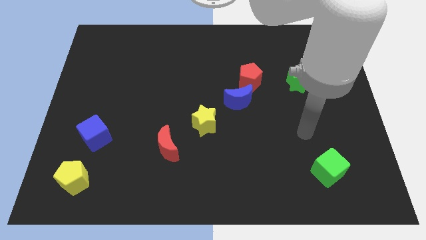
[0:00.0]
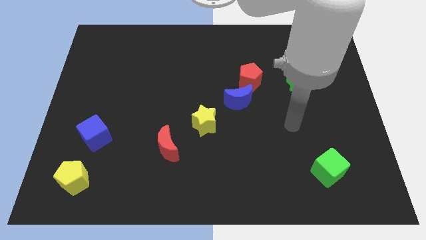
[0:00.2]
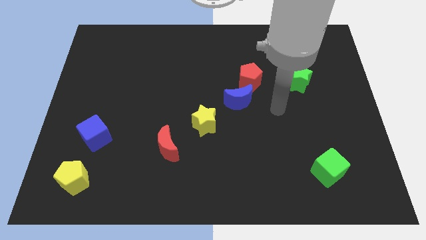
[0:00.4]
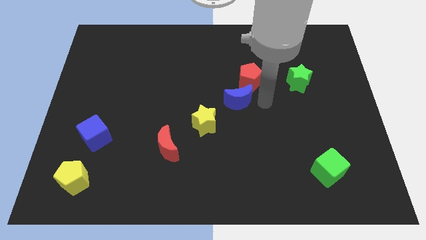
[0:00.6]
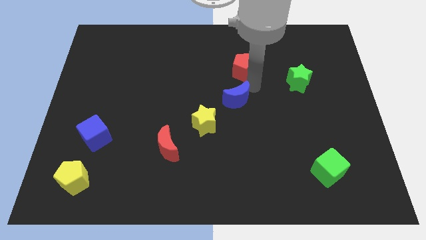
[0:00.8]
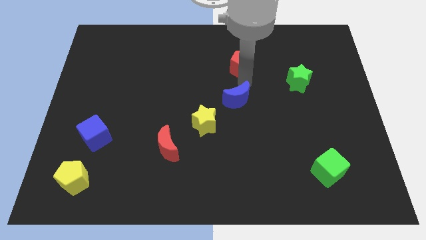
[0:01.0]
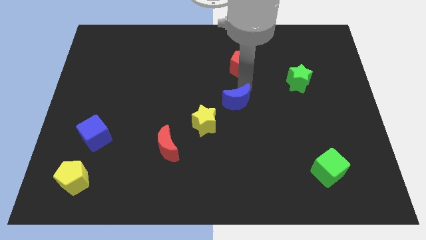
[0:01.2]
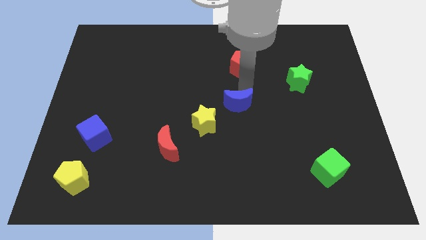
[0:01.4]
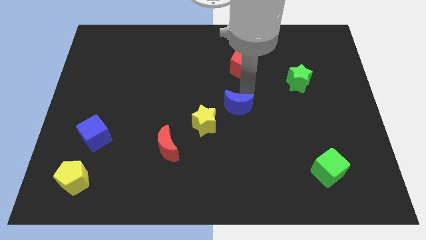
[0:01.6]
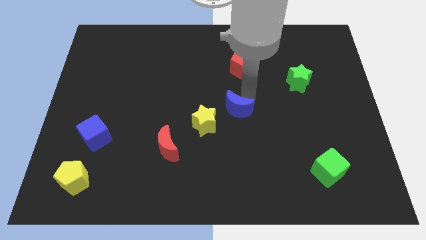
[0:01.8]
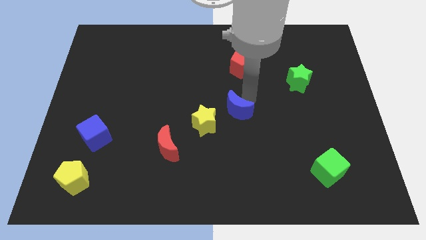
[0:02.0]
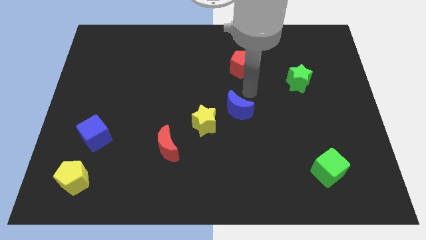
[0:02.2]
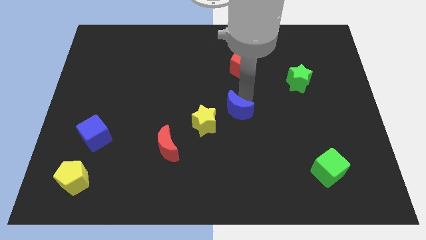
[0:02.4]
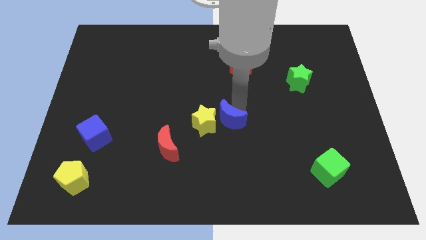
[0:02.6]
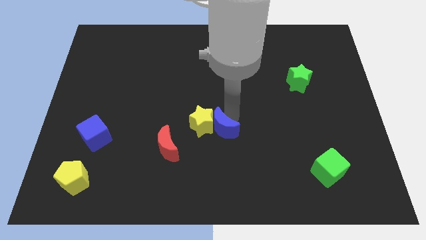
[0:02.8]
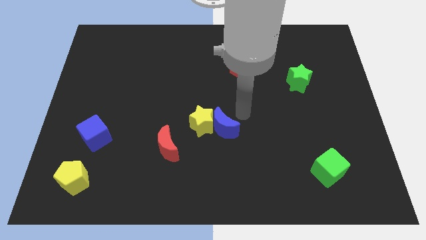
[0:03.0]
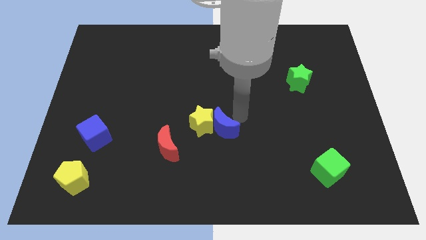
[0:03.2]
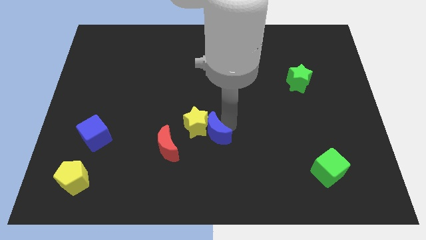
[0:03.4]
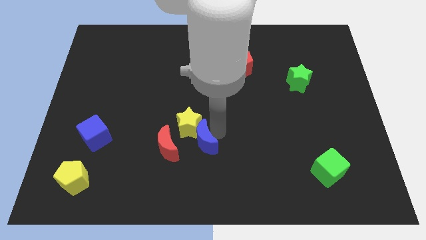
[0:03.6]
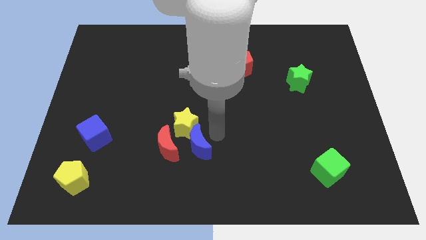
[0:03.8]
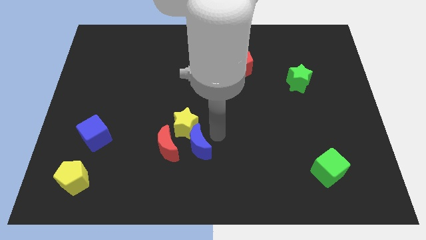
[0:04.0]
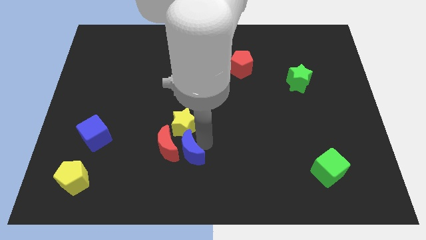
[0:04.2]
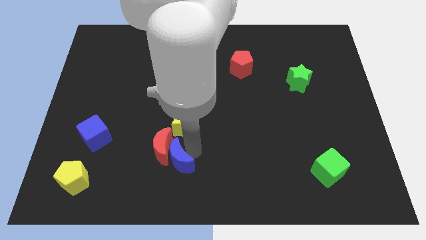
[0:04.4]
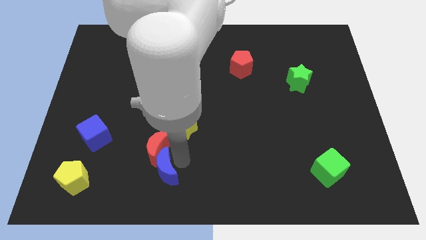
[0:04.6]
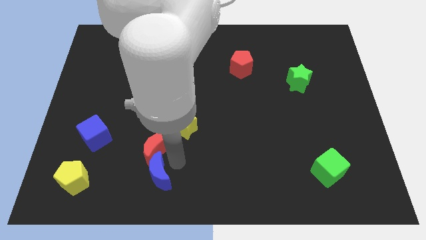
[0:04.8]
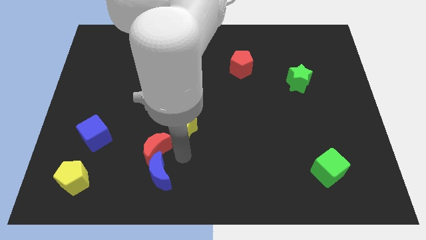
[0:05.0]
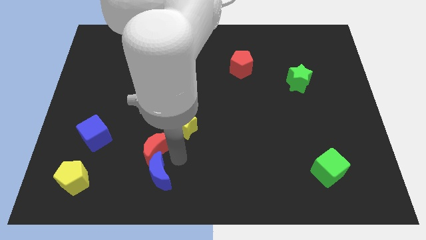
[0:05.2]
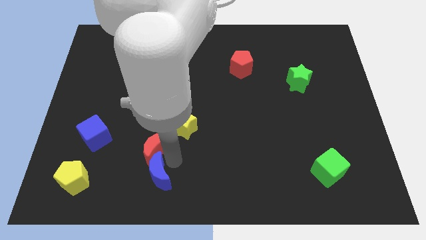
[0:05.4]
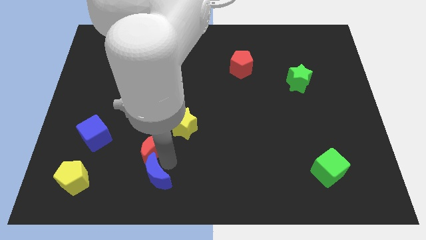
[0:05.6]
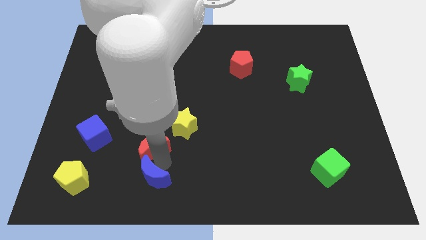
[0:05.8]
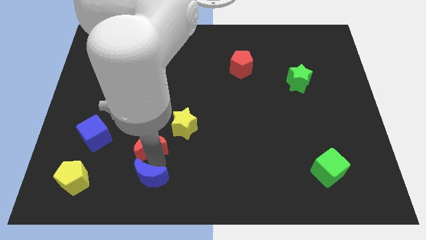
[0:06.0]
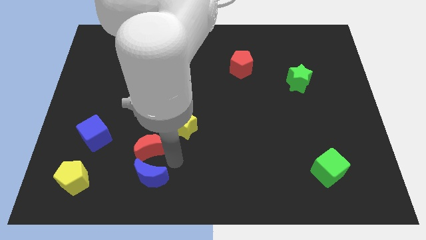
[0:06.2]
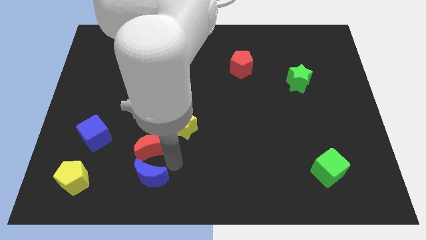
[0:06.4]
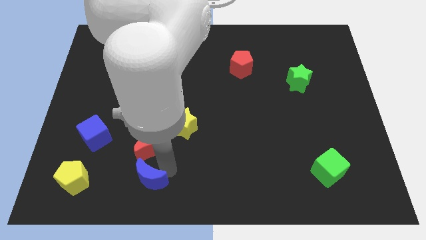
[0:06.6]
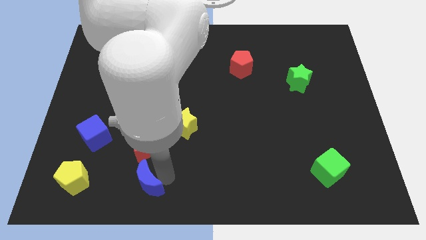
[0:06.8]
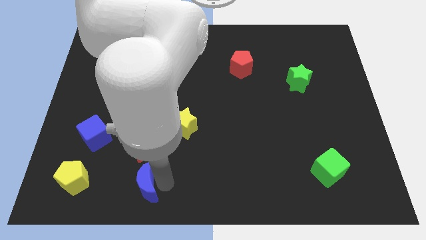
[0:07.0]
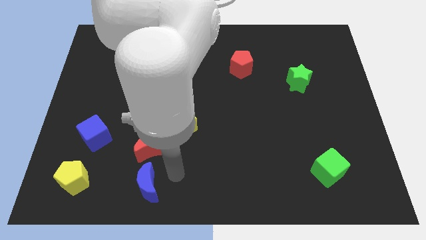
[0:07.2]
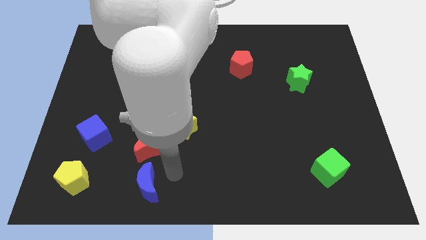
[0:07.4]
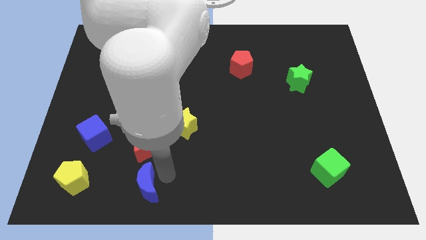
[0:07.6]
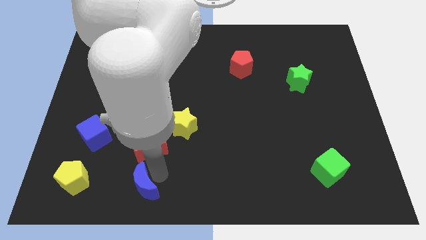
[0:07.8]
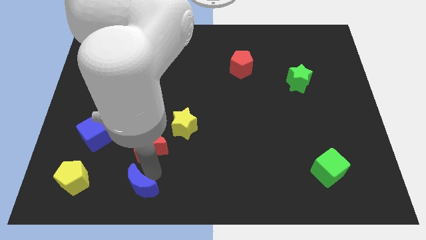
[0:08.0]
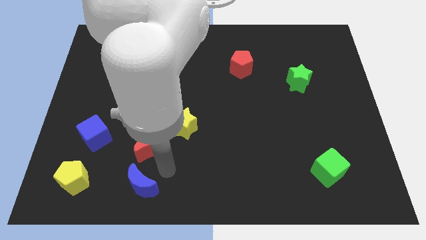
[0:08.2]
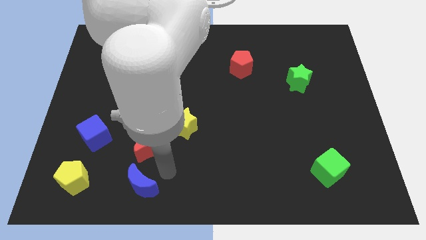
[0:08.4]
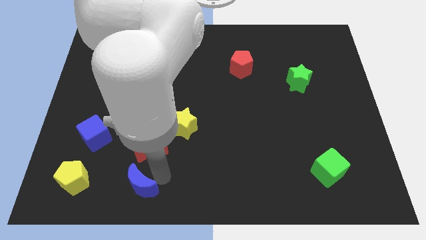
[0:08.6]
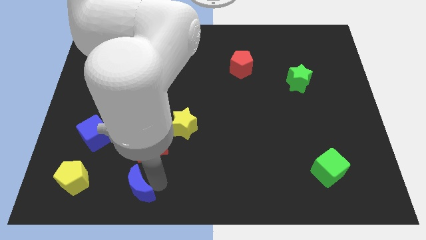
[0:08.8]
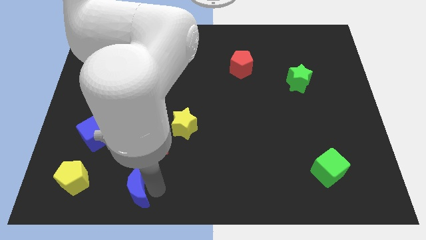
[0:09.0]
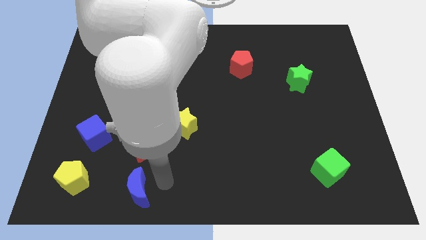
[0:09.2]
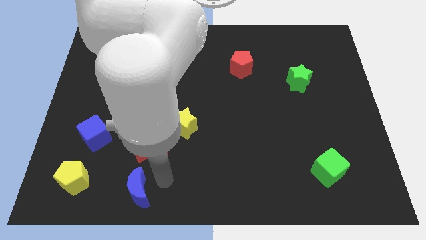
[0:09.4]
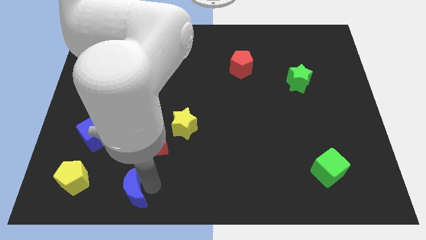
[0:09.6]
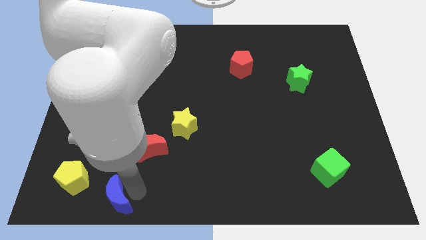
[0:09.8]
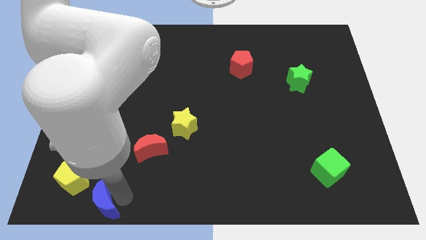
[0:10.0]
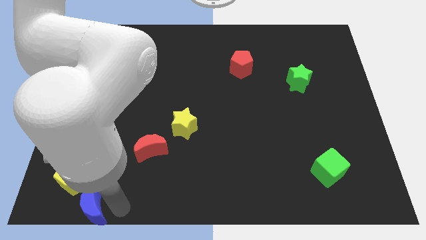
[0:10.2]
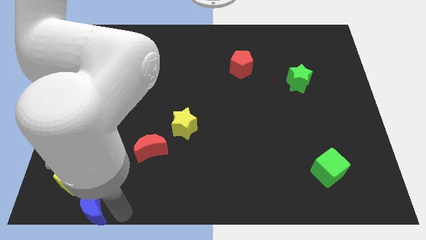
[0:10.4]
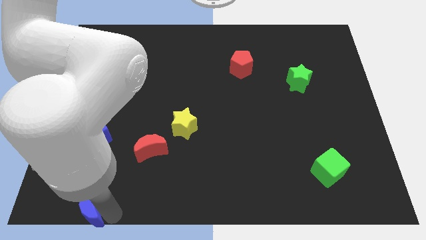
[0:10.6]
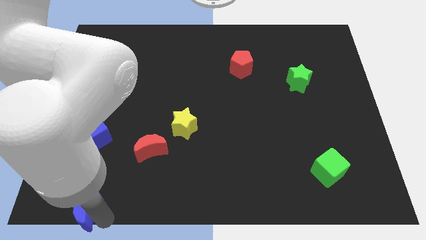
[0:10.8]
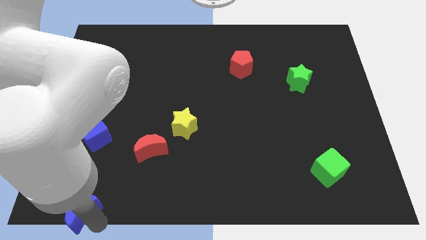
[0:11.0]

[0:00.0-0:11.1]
move the blue moon to the lower left corner

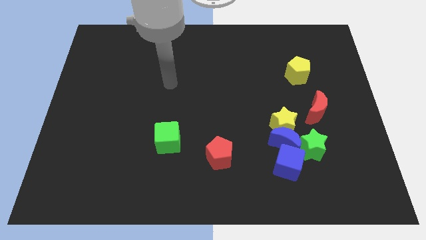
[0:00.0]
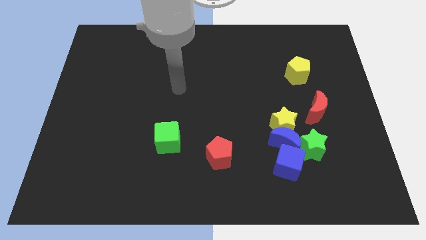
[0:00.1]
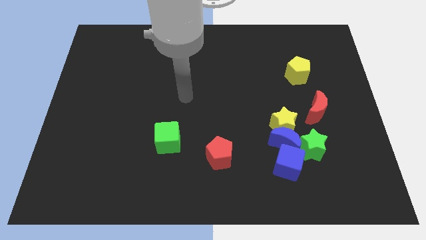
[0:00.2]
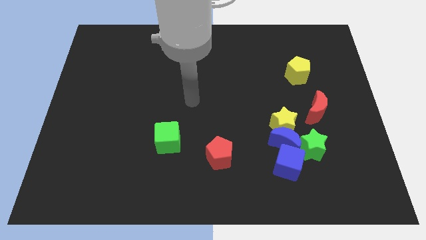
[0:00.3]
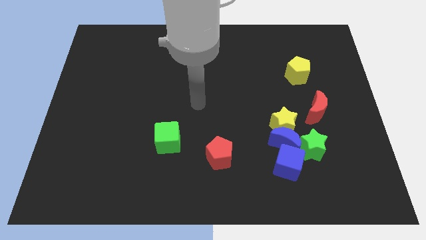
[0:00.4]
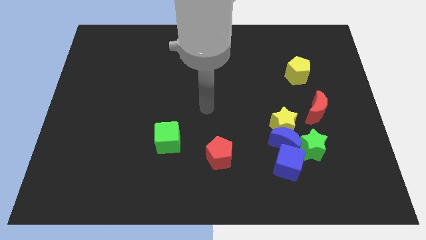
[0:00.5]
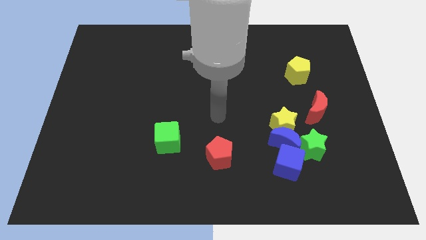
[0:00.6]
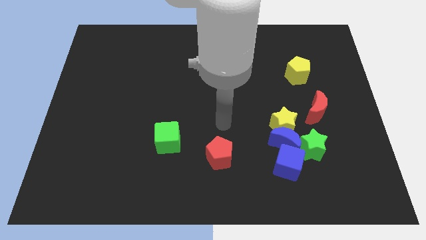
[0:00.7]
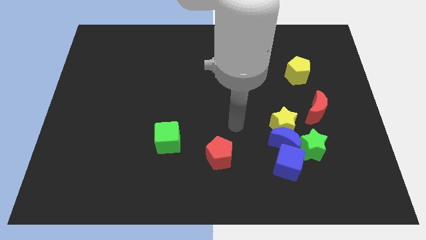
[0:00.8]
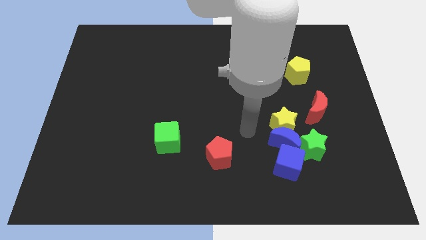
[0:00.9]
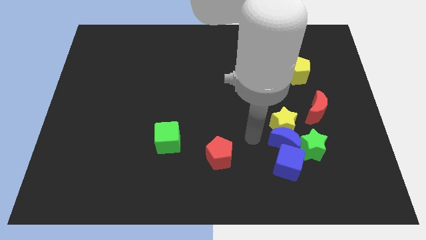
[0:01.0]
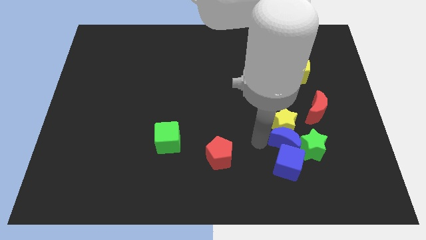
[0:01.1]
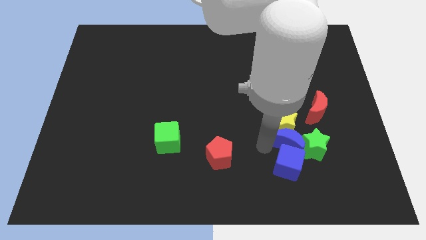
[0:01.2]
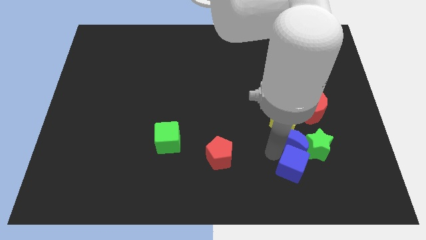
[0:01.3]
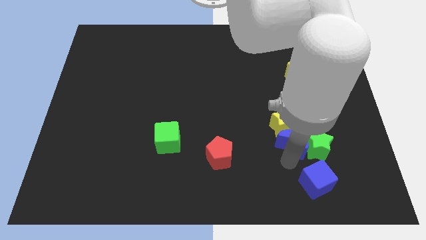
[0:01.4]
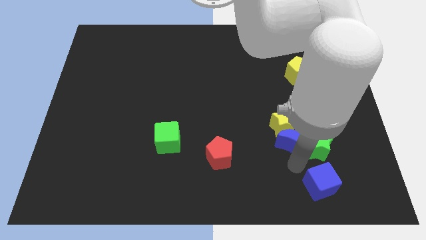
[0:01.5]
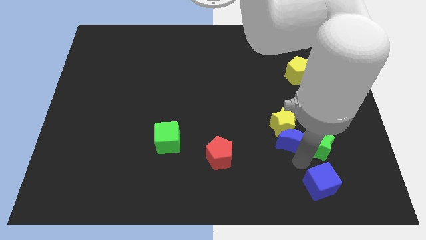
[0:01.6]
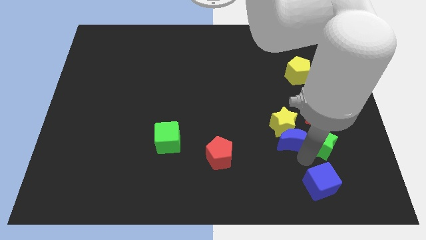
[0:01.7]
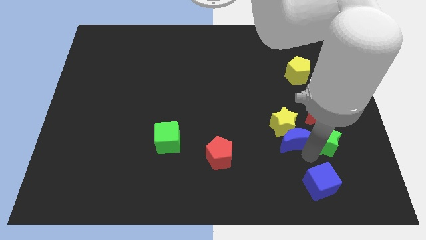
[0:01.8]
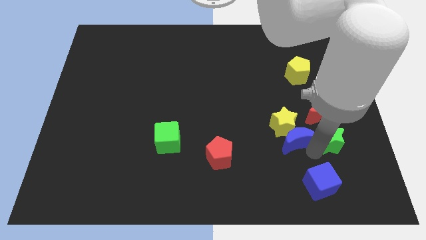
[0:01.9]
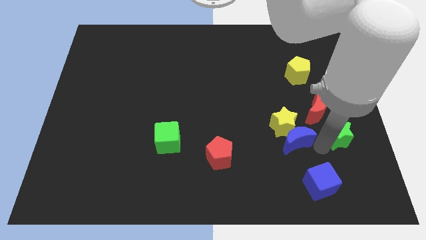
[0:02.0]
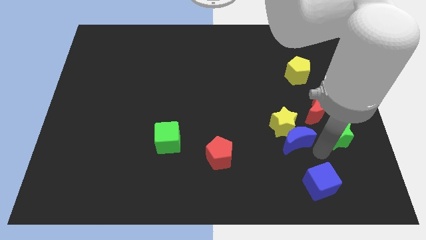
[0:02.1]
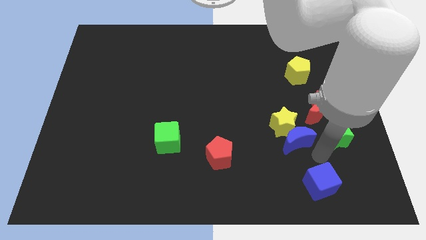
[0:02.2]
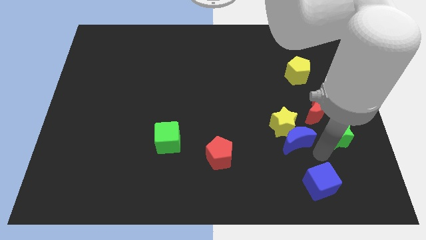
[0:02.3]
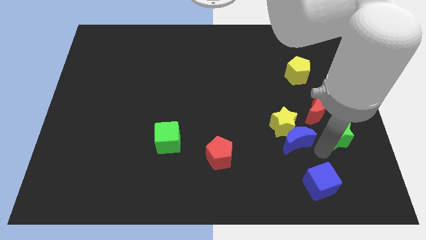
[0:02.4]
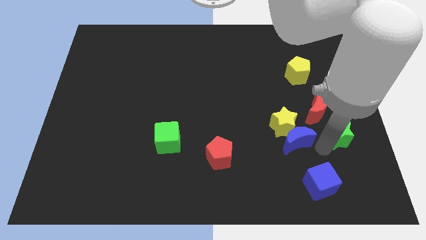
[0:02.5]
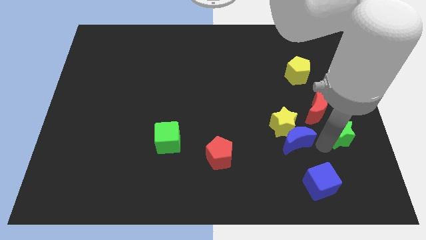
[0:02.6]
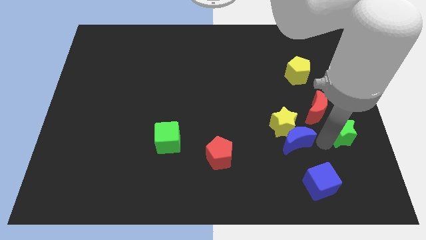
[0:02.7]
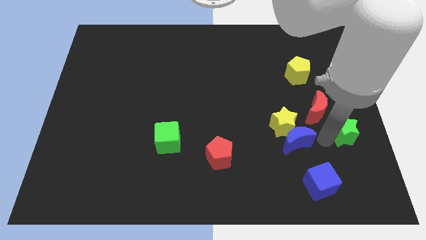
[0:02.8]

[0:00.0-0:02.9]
push the green star to the right side
